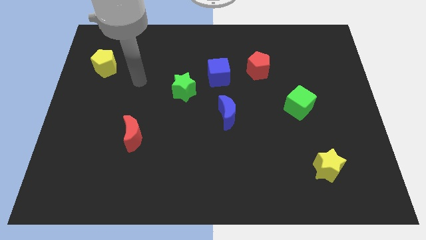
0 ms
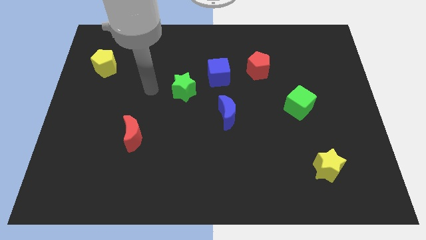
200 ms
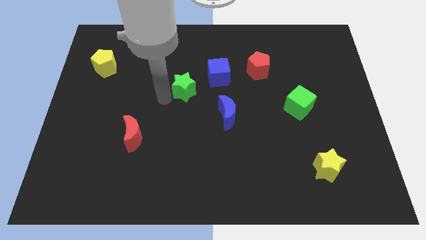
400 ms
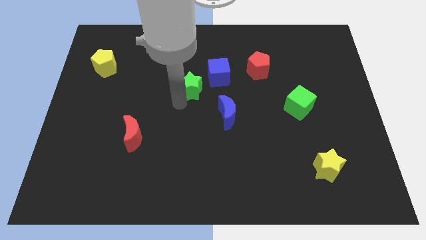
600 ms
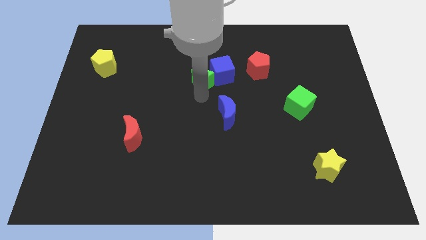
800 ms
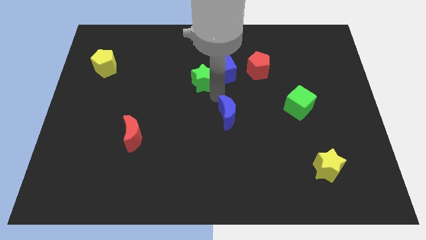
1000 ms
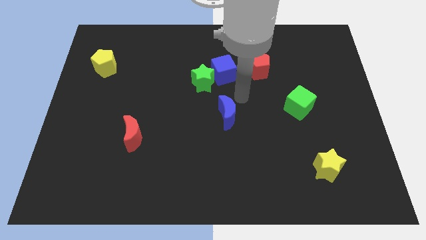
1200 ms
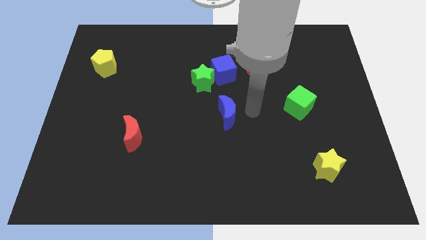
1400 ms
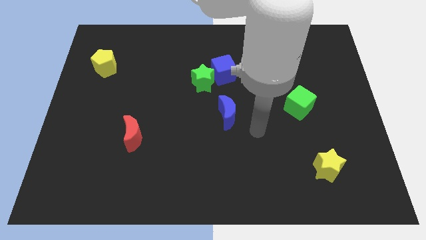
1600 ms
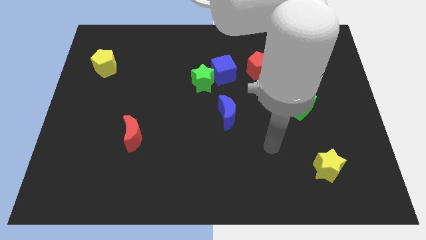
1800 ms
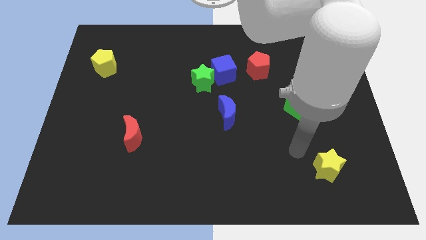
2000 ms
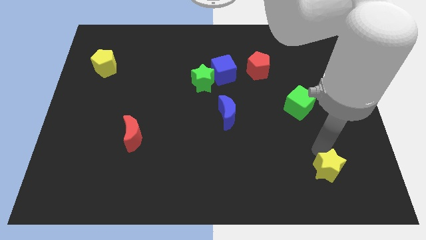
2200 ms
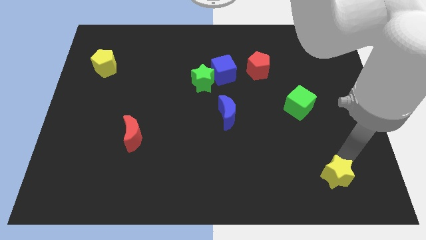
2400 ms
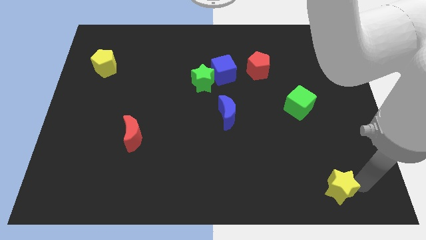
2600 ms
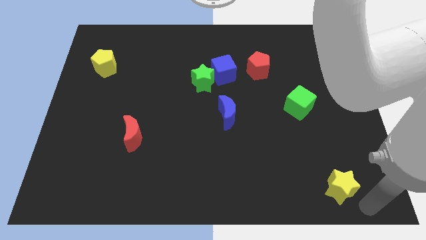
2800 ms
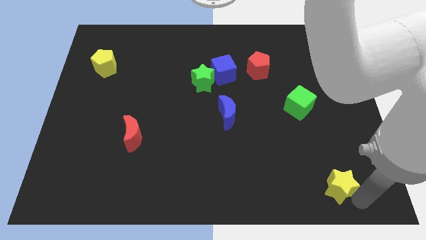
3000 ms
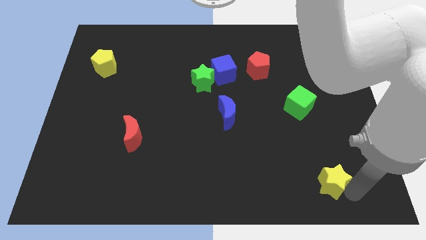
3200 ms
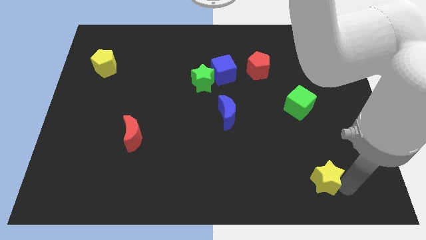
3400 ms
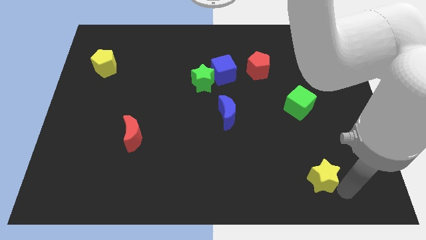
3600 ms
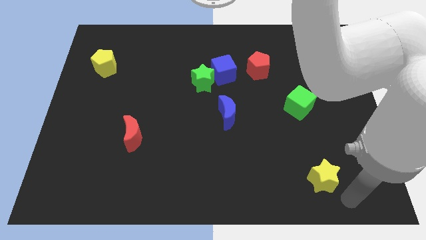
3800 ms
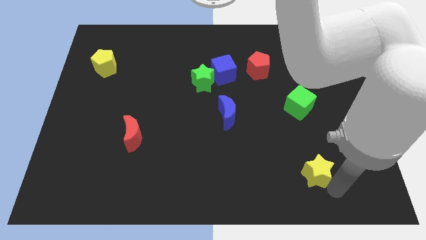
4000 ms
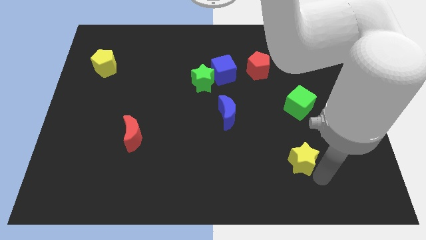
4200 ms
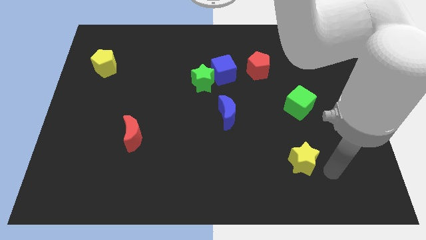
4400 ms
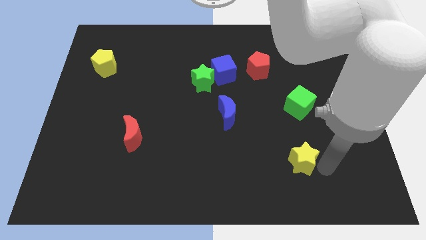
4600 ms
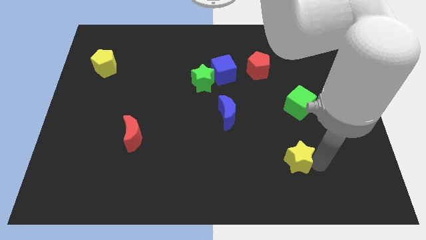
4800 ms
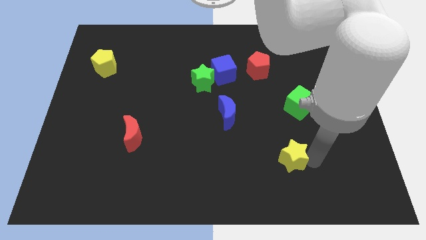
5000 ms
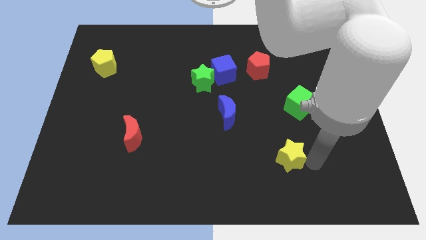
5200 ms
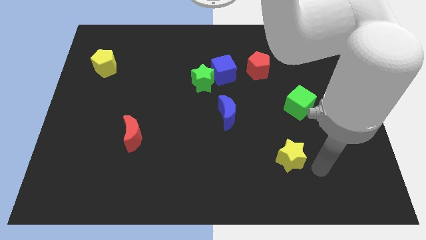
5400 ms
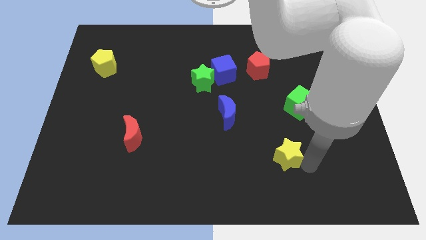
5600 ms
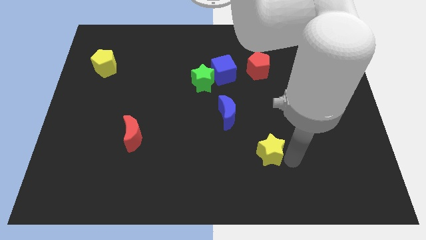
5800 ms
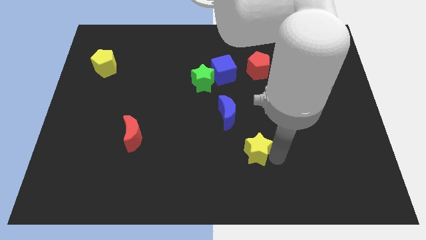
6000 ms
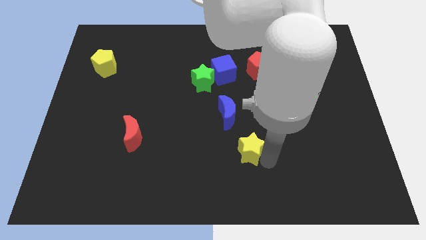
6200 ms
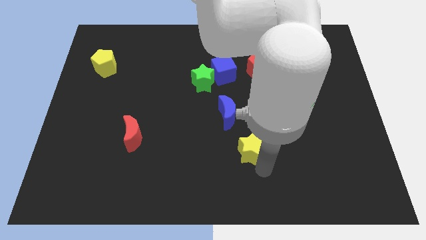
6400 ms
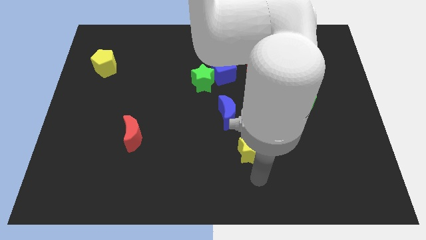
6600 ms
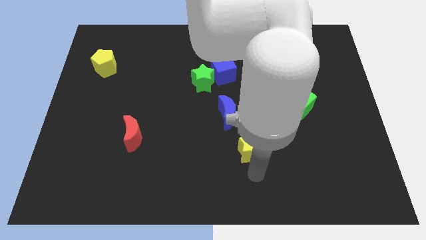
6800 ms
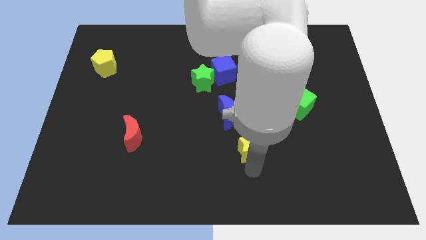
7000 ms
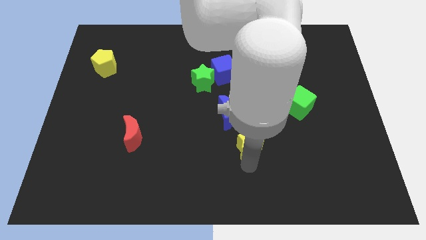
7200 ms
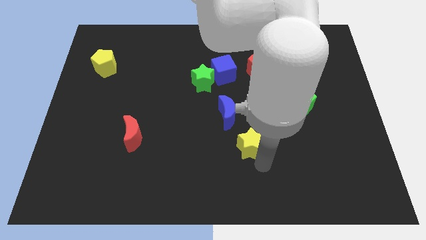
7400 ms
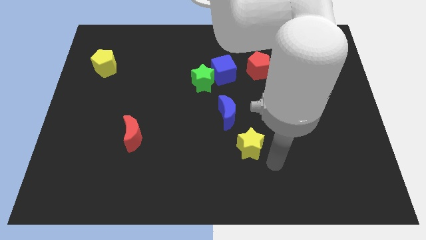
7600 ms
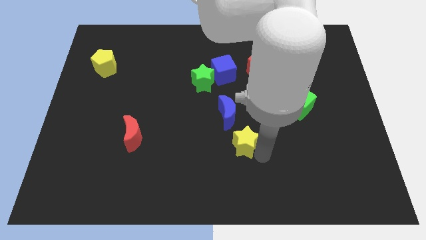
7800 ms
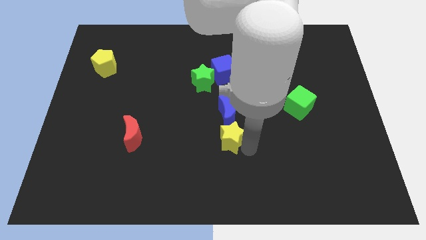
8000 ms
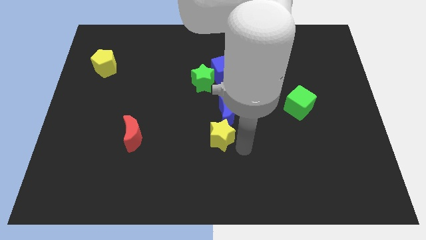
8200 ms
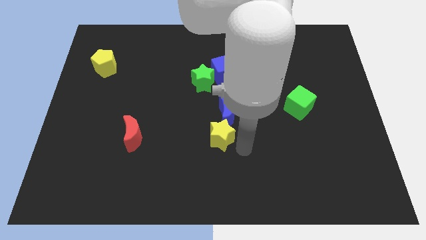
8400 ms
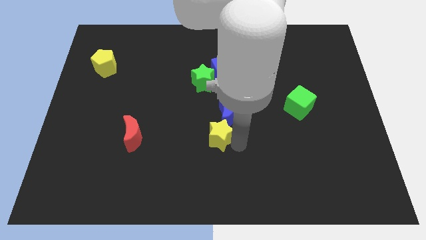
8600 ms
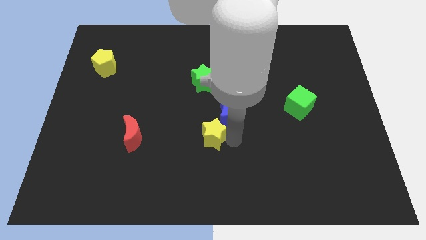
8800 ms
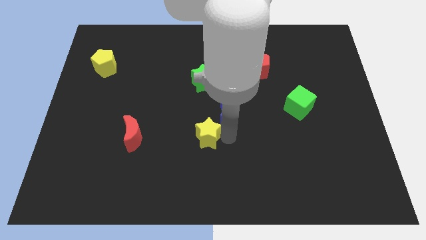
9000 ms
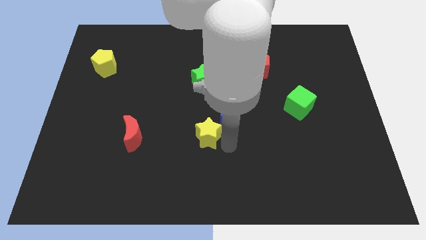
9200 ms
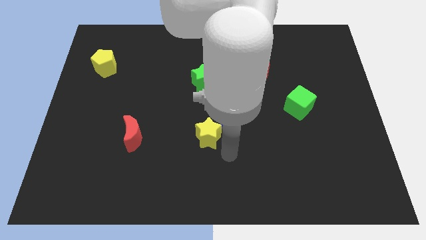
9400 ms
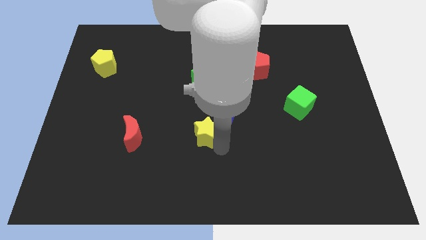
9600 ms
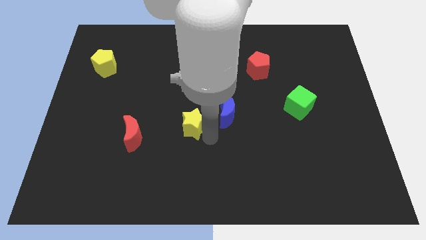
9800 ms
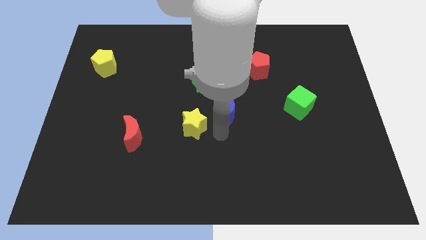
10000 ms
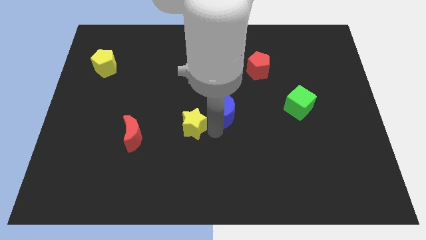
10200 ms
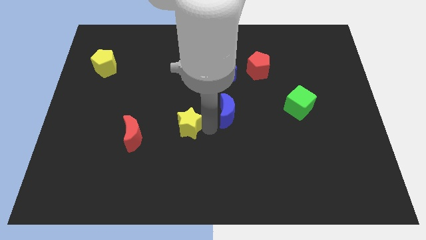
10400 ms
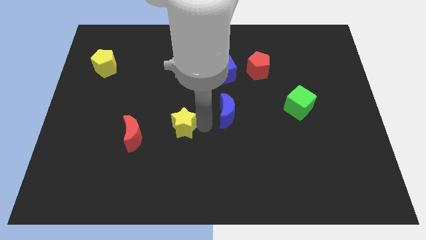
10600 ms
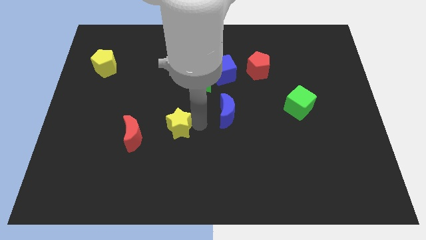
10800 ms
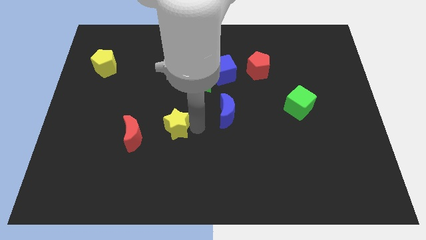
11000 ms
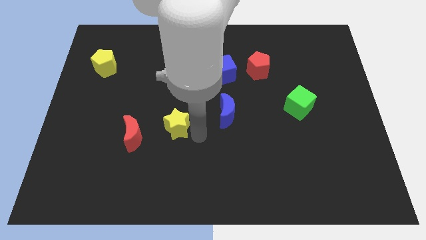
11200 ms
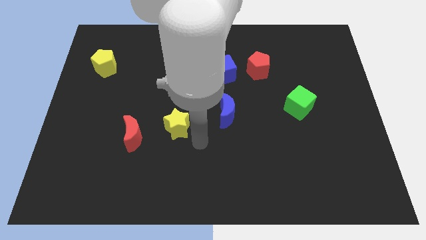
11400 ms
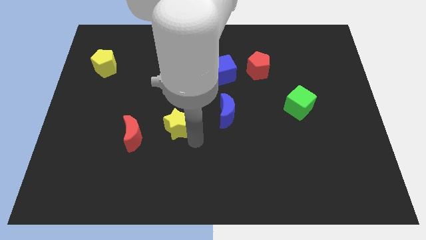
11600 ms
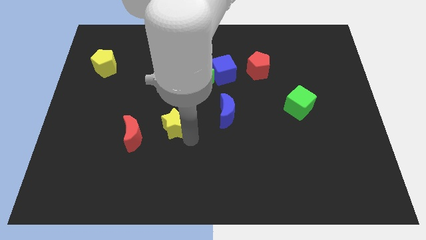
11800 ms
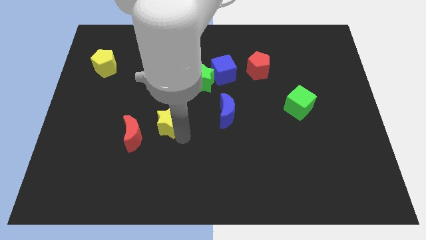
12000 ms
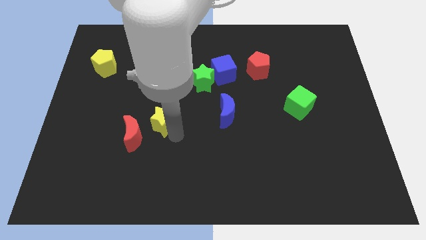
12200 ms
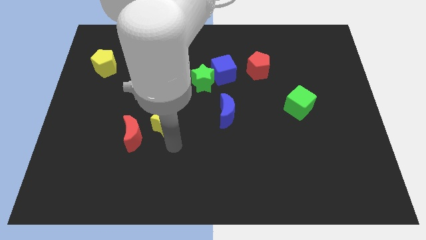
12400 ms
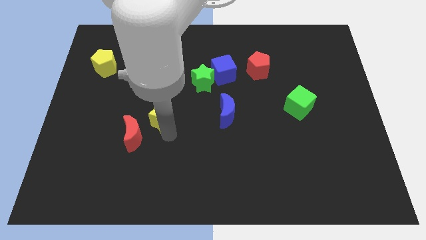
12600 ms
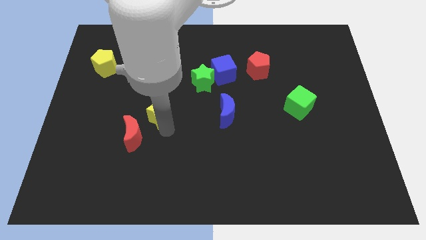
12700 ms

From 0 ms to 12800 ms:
put the yellow star above the red moon
